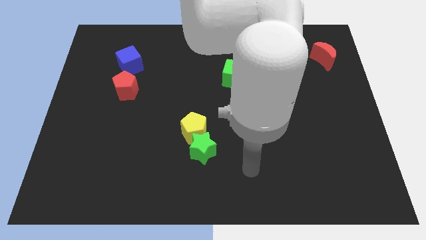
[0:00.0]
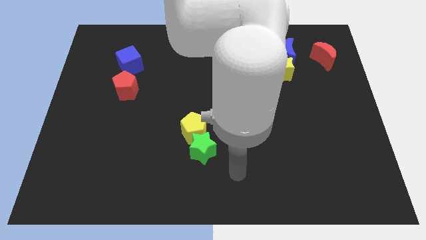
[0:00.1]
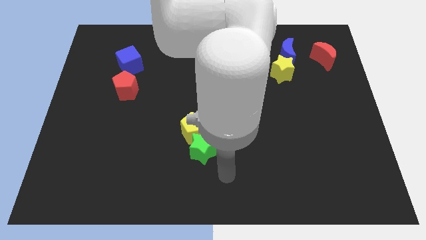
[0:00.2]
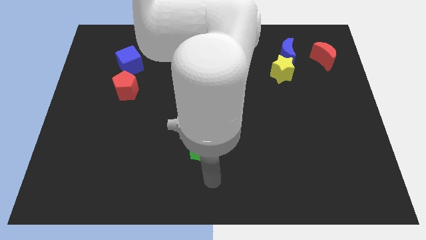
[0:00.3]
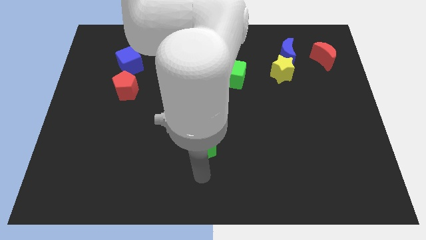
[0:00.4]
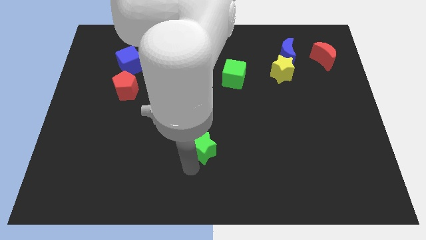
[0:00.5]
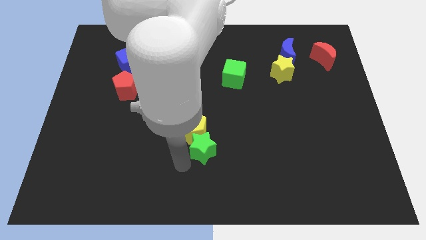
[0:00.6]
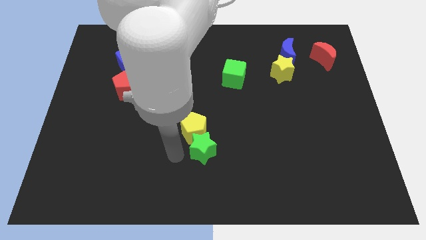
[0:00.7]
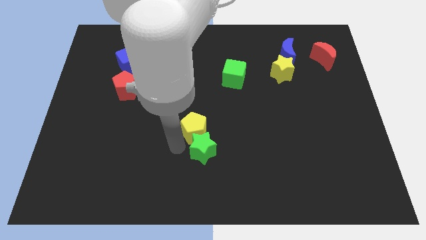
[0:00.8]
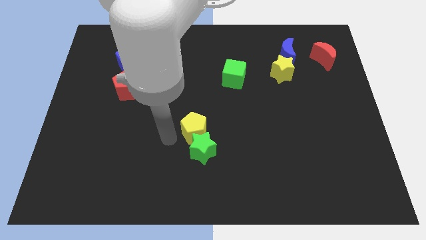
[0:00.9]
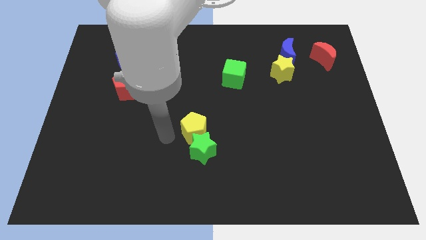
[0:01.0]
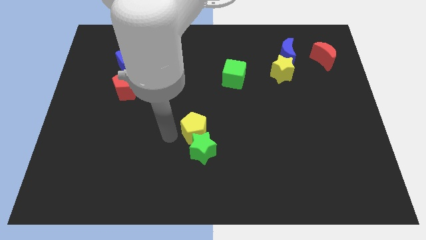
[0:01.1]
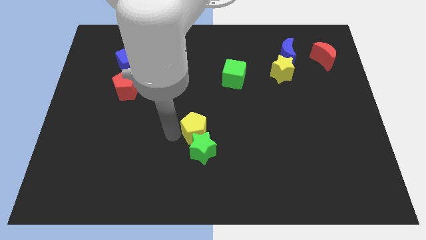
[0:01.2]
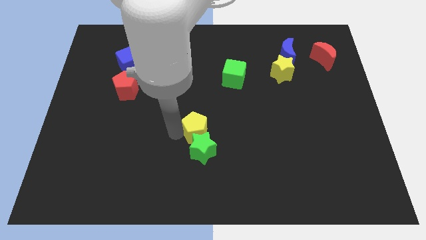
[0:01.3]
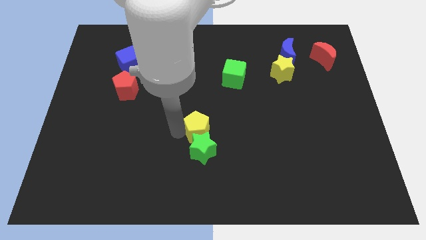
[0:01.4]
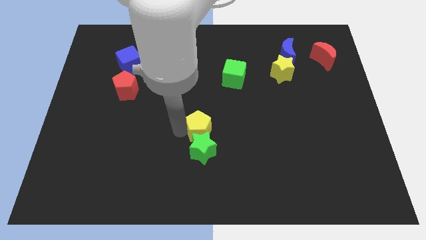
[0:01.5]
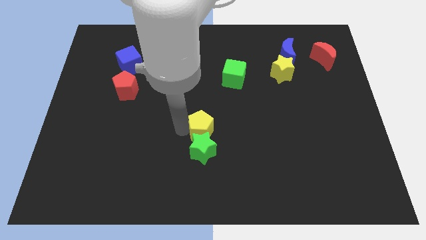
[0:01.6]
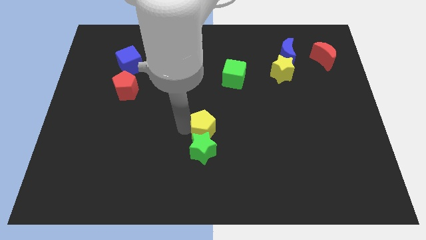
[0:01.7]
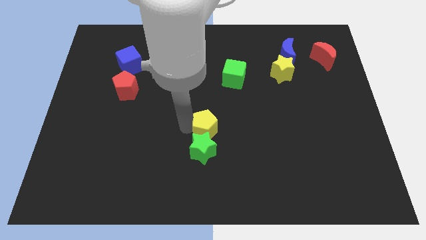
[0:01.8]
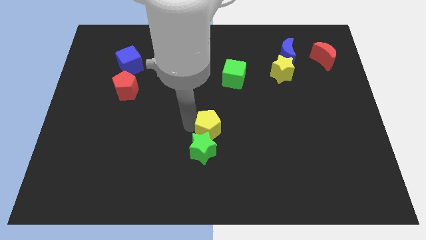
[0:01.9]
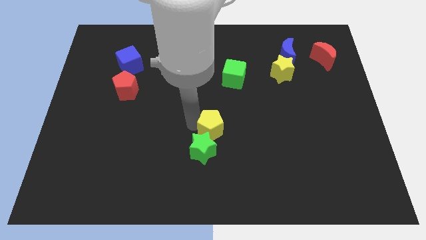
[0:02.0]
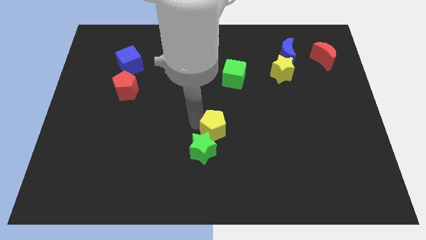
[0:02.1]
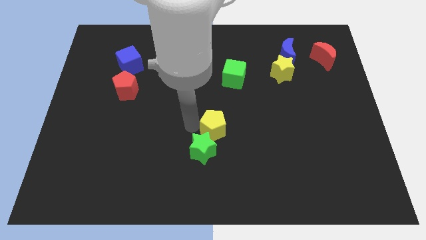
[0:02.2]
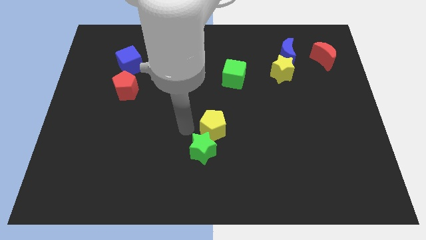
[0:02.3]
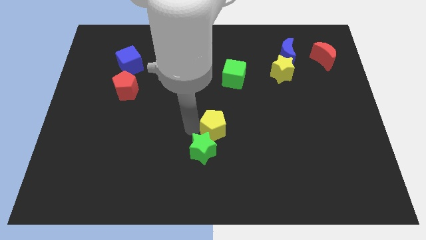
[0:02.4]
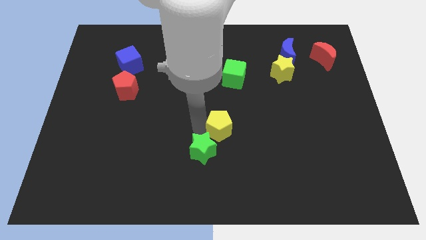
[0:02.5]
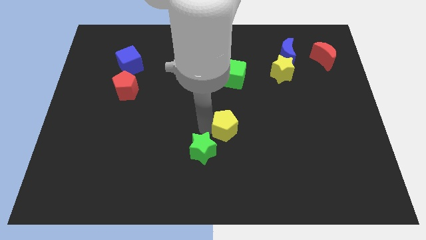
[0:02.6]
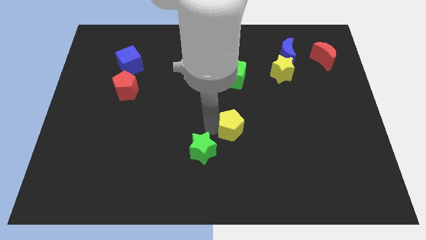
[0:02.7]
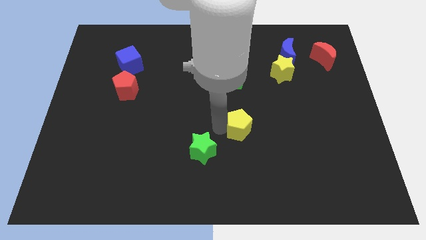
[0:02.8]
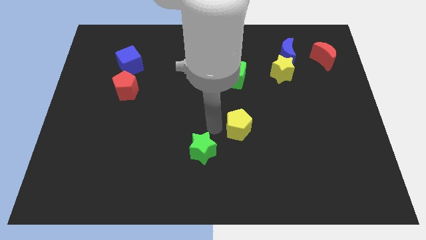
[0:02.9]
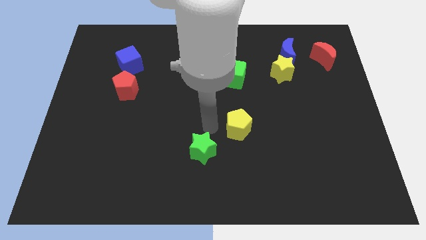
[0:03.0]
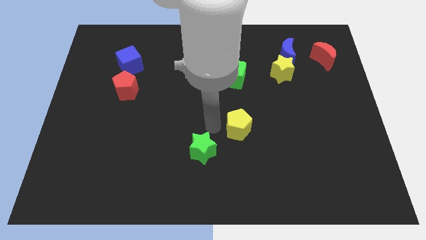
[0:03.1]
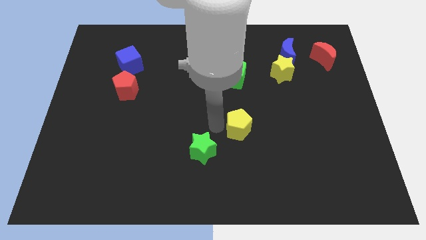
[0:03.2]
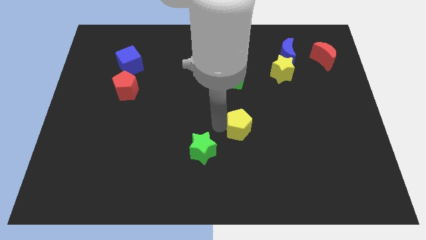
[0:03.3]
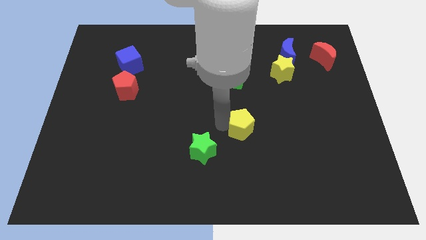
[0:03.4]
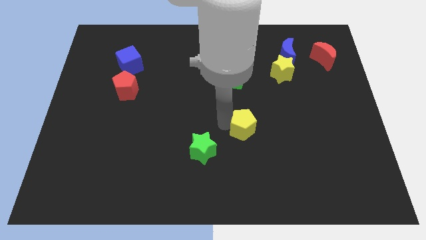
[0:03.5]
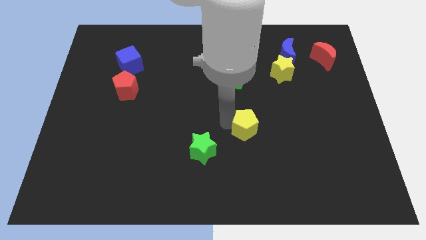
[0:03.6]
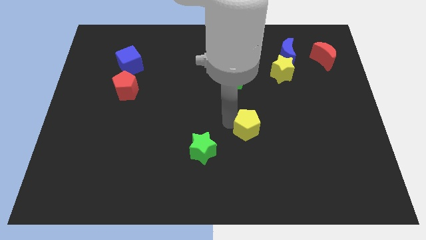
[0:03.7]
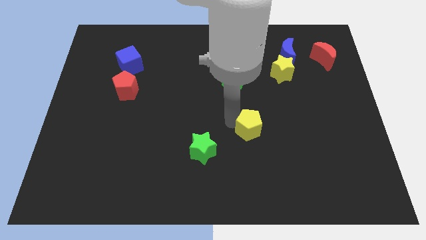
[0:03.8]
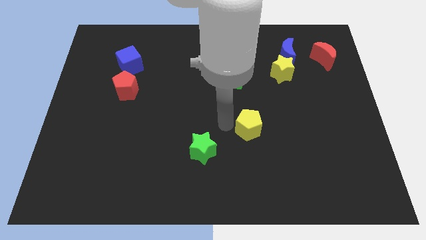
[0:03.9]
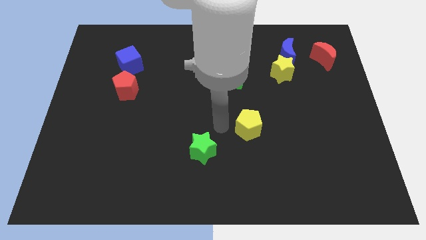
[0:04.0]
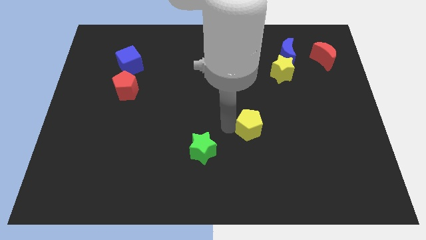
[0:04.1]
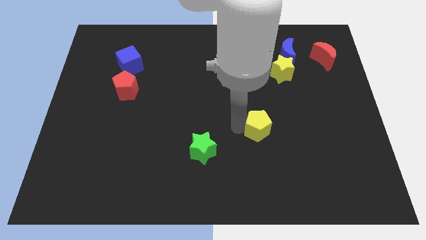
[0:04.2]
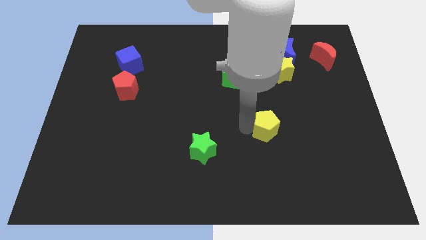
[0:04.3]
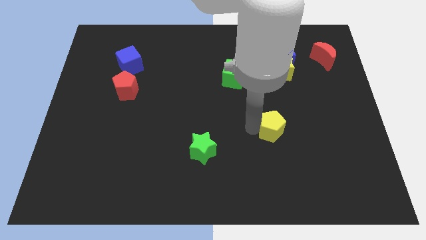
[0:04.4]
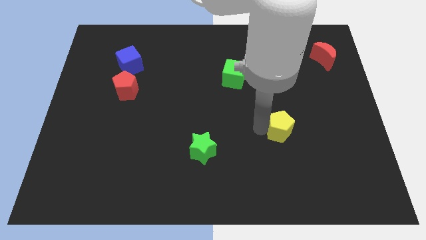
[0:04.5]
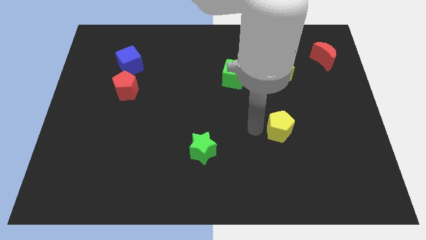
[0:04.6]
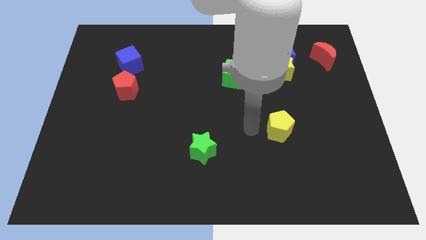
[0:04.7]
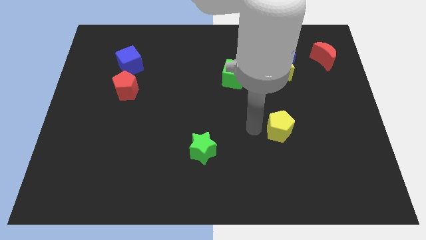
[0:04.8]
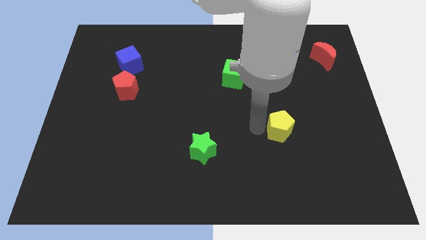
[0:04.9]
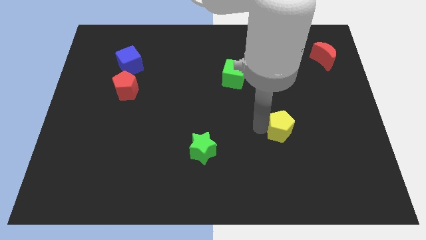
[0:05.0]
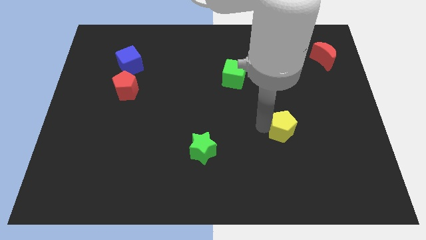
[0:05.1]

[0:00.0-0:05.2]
push the yellow pentagon right

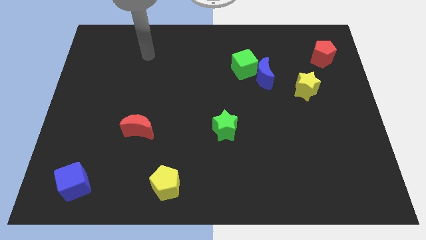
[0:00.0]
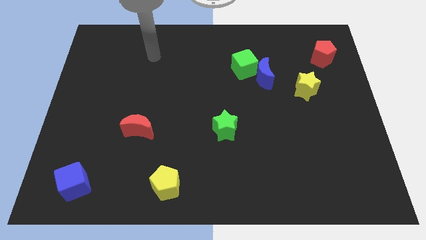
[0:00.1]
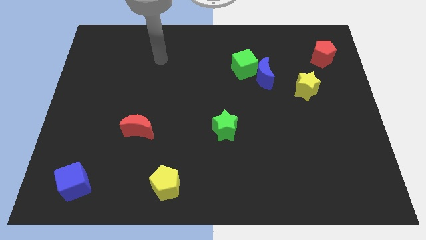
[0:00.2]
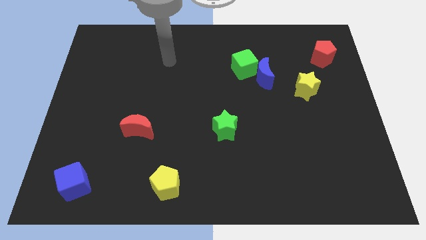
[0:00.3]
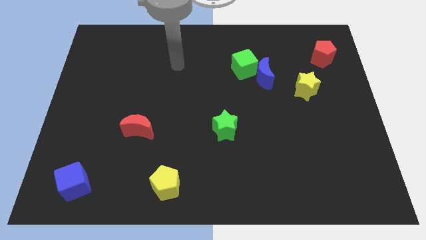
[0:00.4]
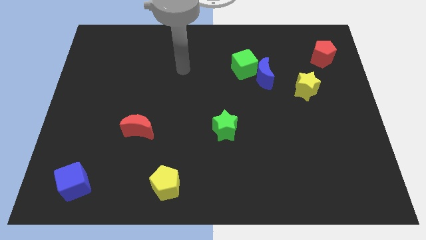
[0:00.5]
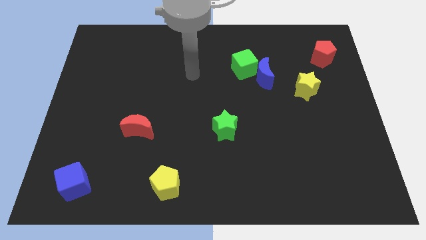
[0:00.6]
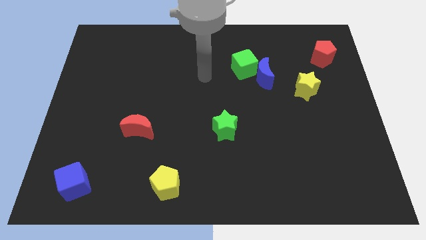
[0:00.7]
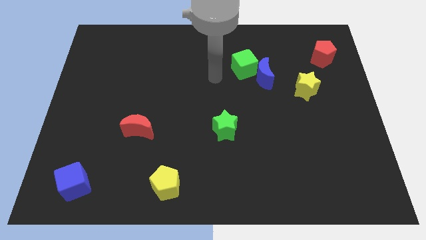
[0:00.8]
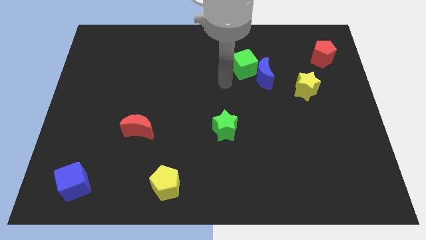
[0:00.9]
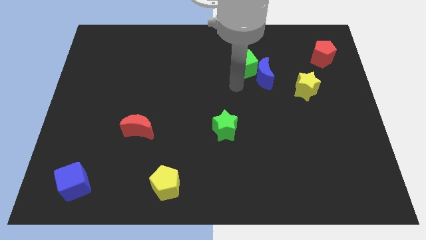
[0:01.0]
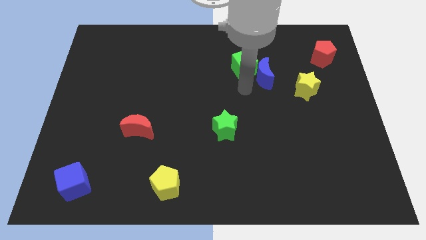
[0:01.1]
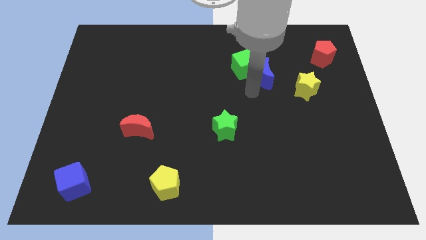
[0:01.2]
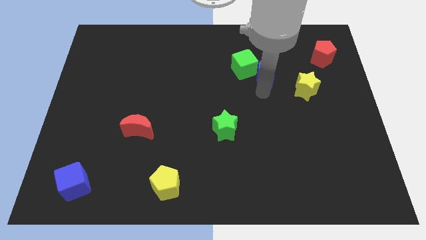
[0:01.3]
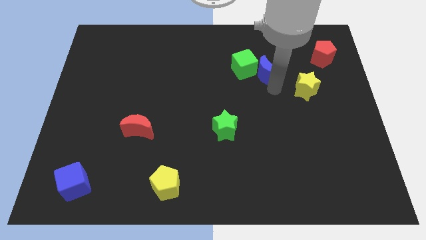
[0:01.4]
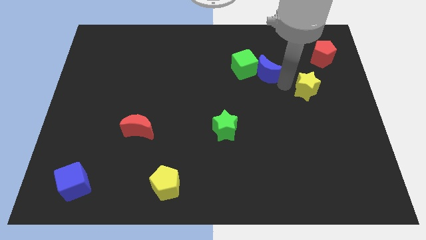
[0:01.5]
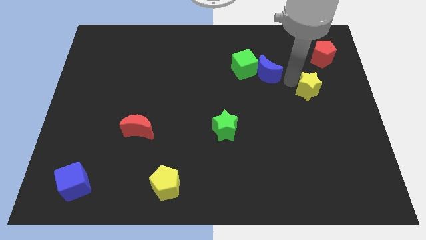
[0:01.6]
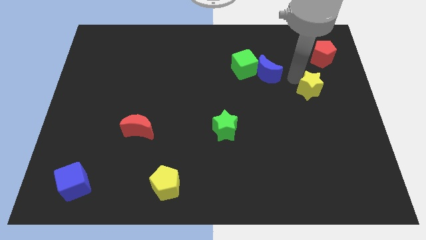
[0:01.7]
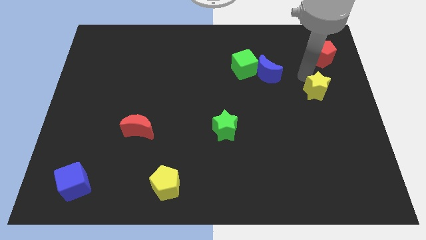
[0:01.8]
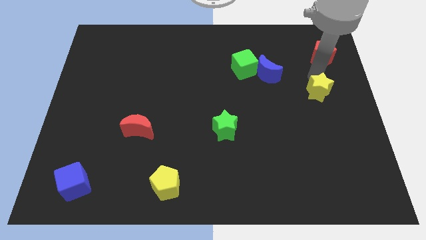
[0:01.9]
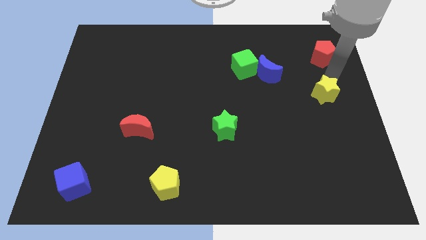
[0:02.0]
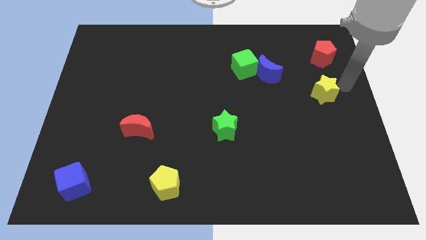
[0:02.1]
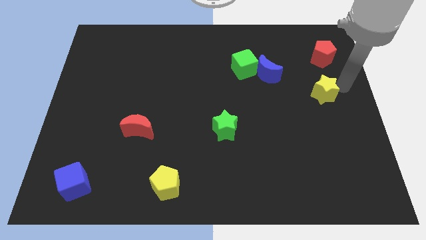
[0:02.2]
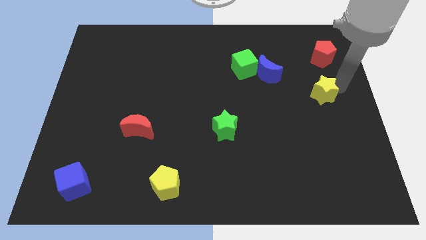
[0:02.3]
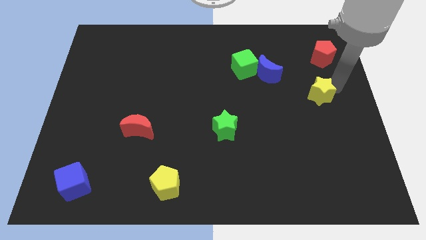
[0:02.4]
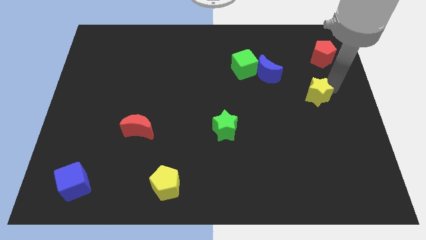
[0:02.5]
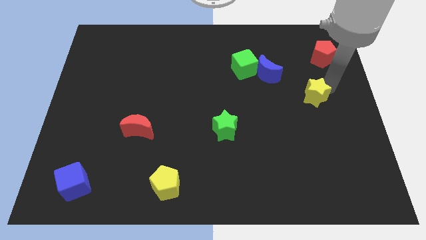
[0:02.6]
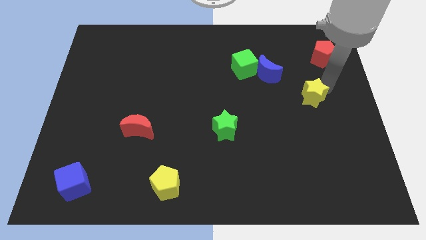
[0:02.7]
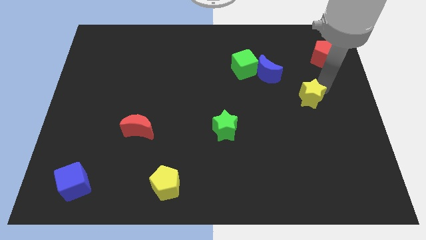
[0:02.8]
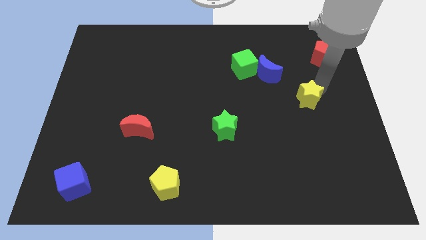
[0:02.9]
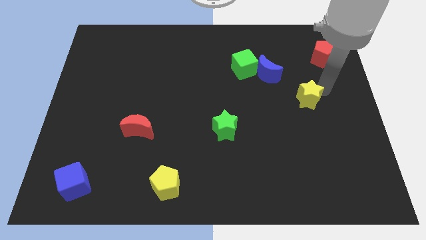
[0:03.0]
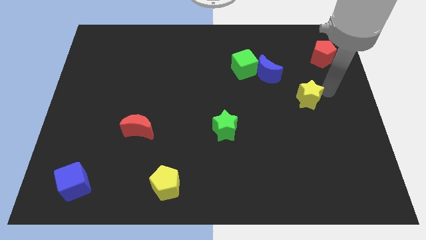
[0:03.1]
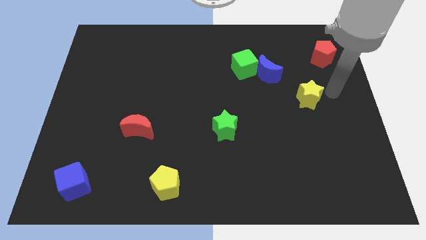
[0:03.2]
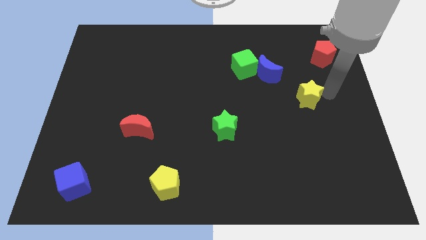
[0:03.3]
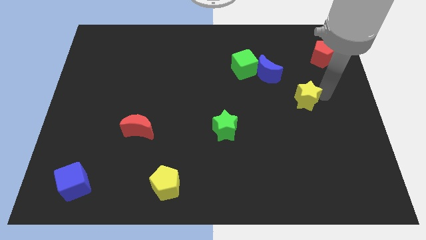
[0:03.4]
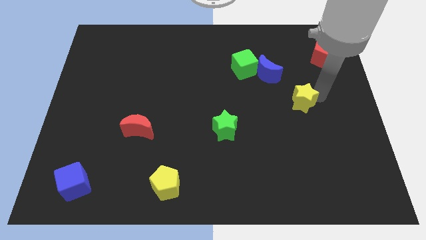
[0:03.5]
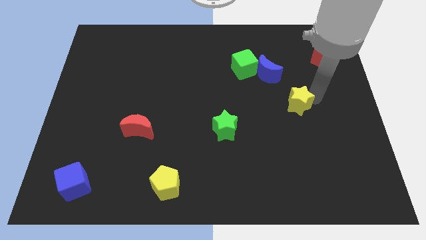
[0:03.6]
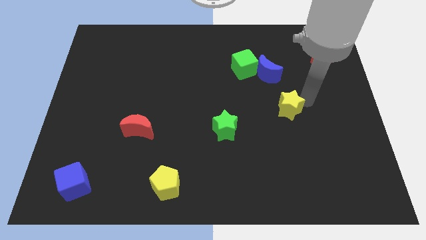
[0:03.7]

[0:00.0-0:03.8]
move the yellow star downwards and then left a bit
